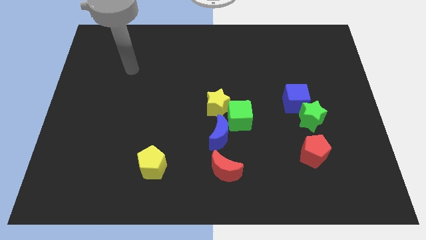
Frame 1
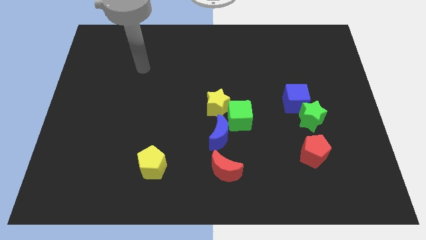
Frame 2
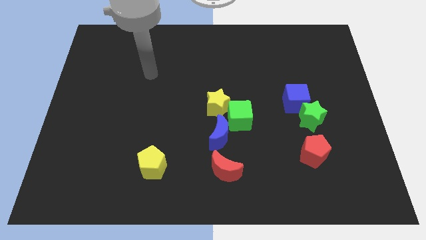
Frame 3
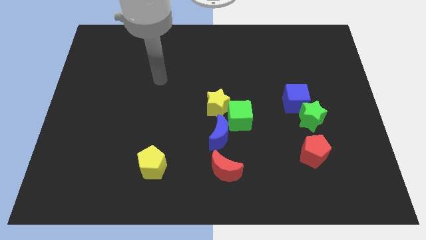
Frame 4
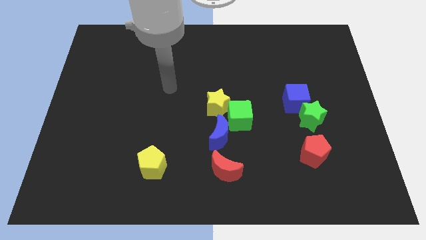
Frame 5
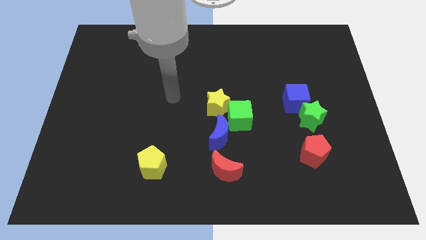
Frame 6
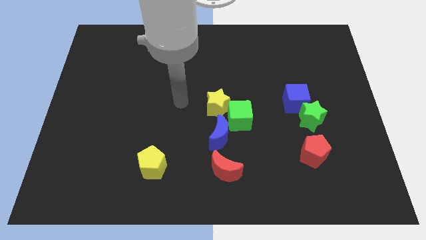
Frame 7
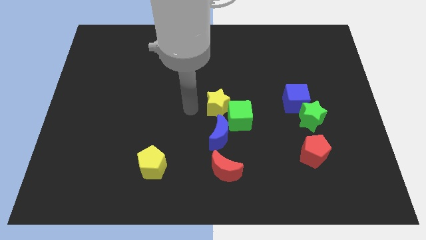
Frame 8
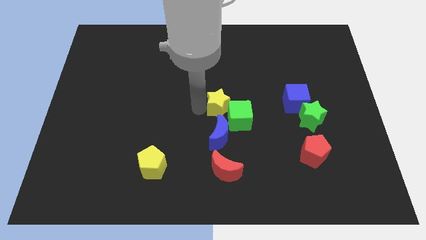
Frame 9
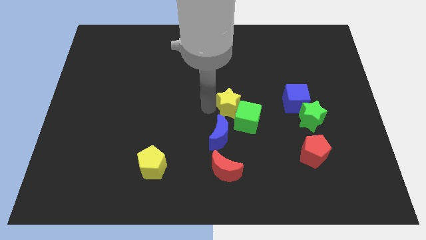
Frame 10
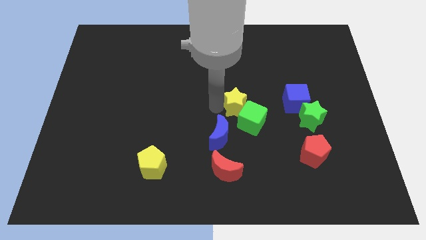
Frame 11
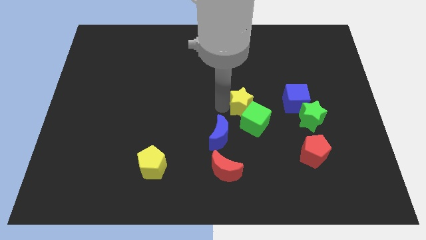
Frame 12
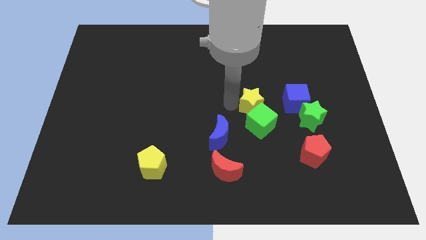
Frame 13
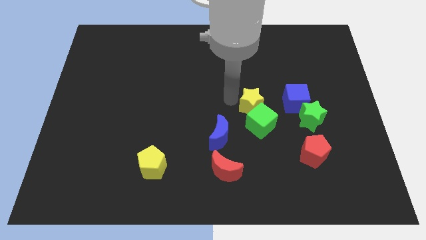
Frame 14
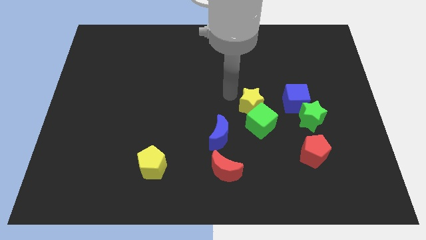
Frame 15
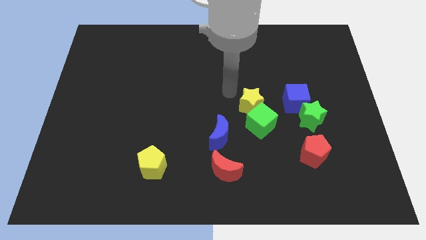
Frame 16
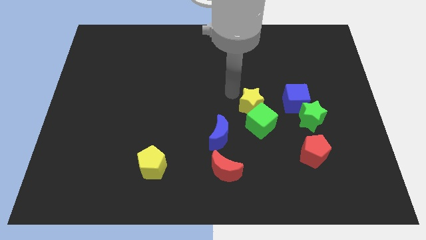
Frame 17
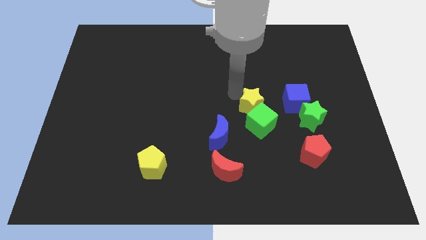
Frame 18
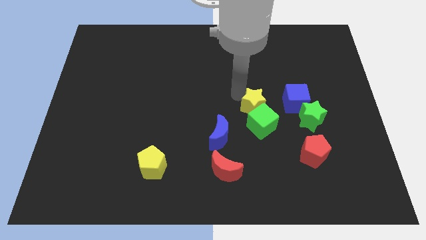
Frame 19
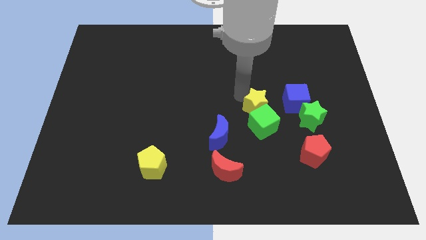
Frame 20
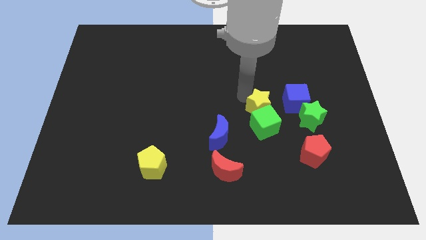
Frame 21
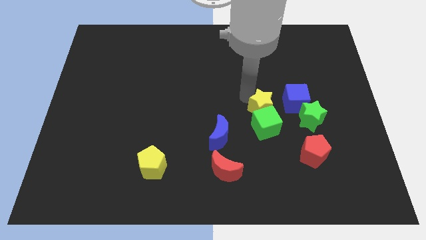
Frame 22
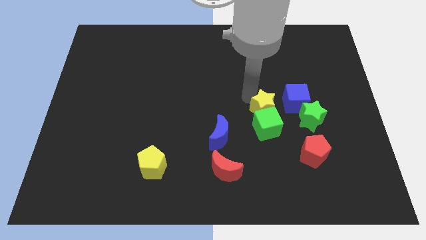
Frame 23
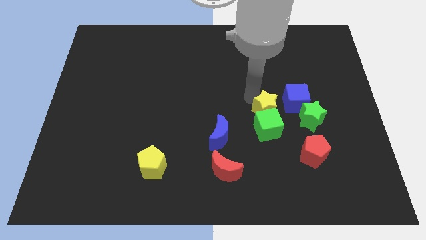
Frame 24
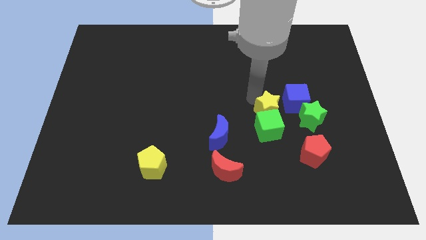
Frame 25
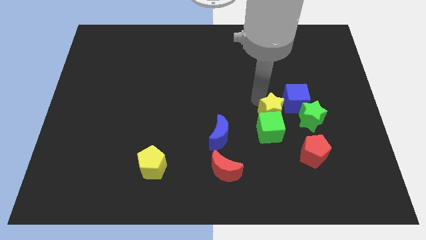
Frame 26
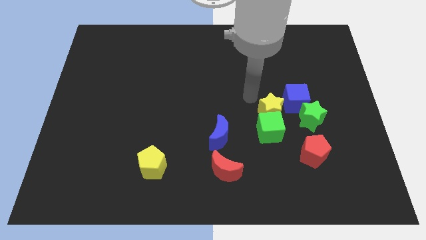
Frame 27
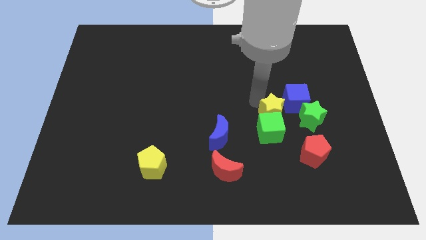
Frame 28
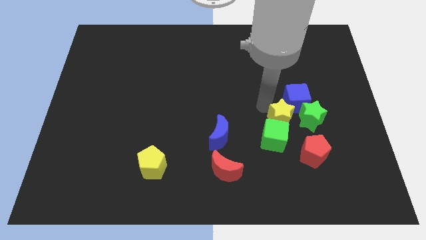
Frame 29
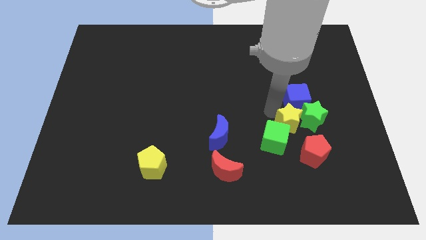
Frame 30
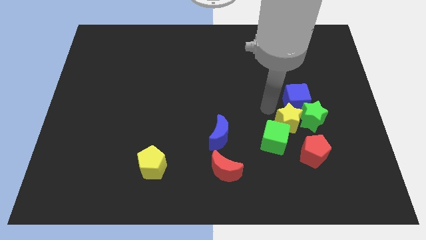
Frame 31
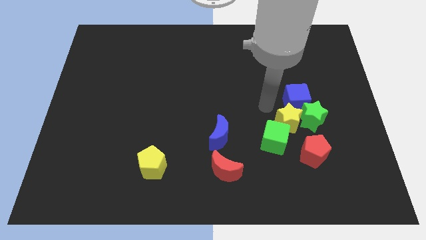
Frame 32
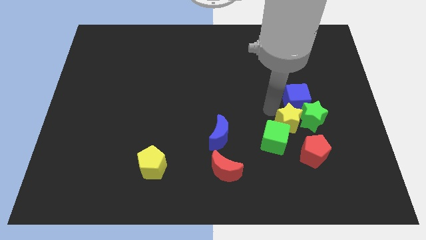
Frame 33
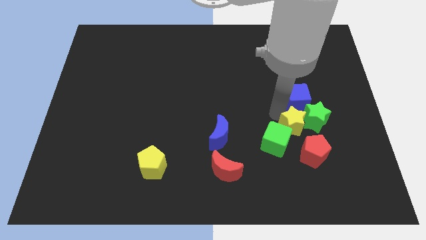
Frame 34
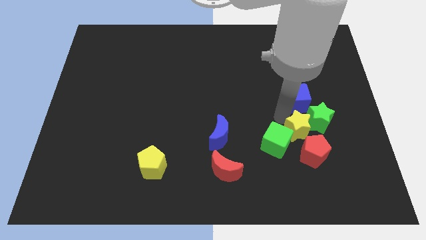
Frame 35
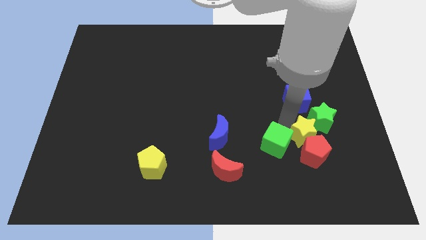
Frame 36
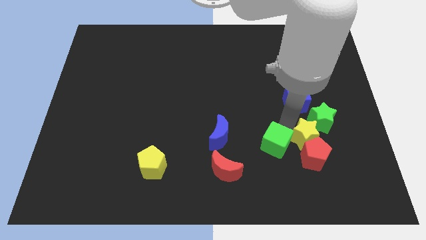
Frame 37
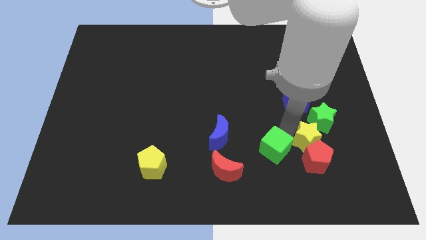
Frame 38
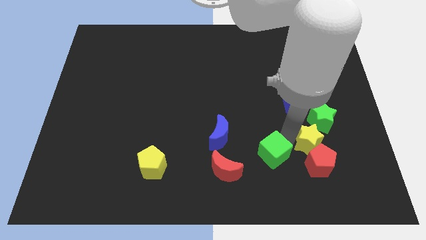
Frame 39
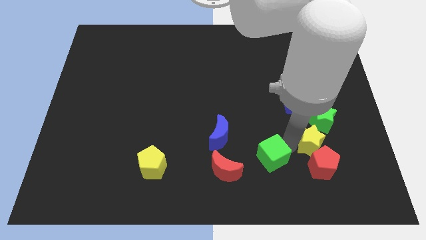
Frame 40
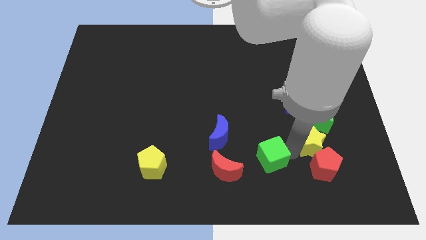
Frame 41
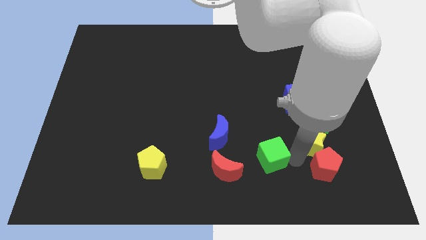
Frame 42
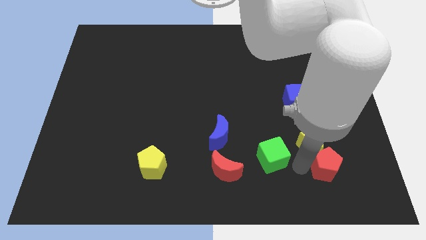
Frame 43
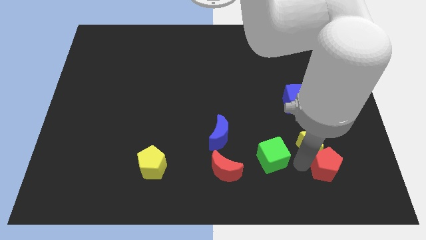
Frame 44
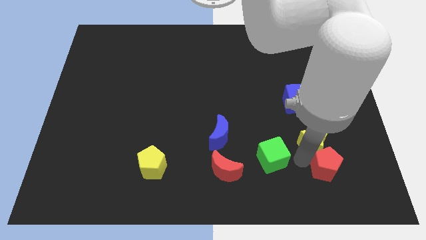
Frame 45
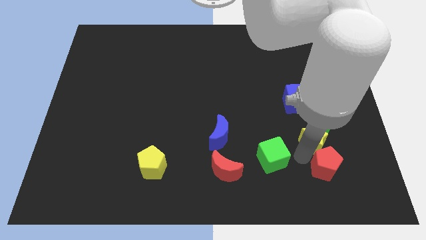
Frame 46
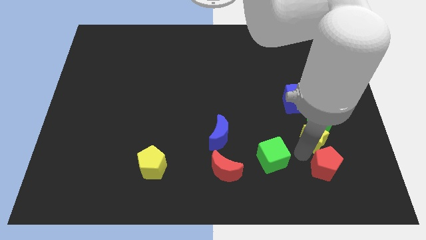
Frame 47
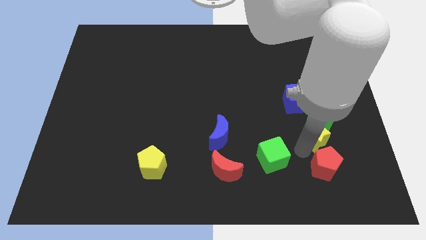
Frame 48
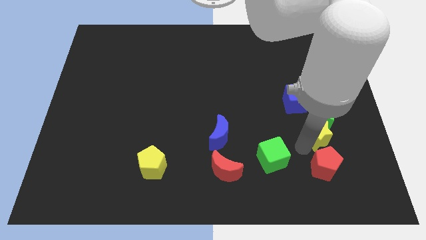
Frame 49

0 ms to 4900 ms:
push the yellow star to the bottom right of the blue cube

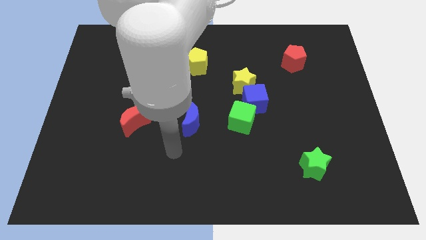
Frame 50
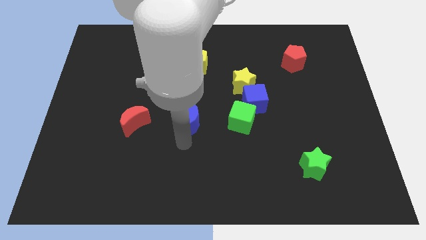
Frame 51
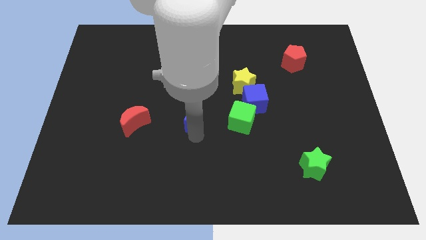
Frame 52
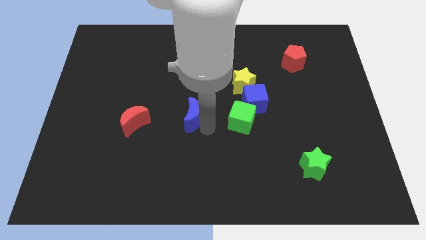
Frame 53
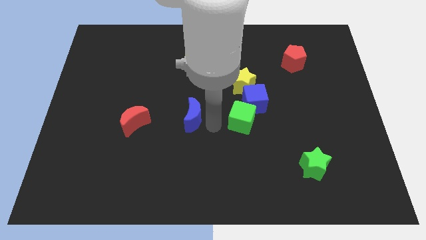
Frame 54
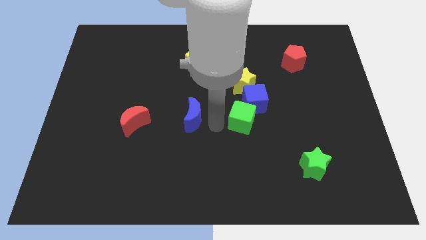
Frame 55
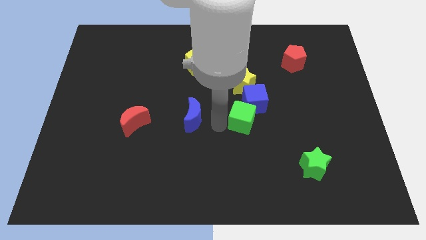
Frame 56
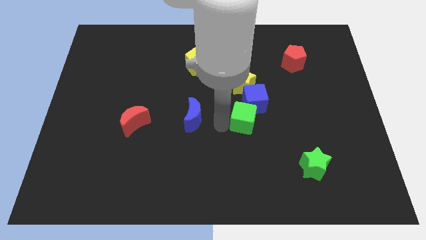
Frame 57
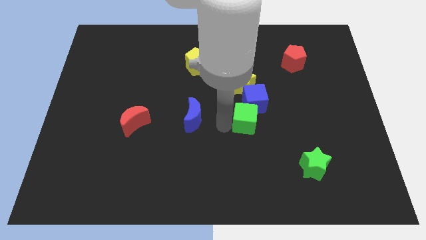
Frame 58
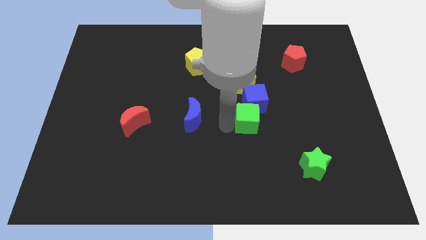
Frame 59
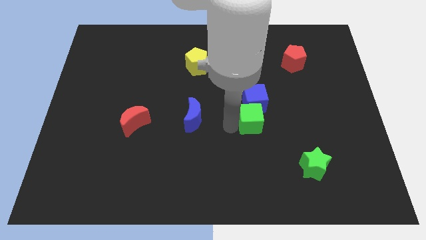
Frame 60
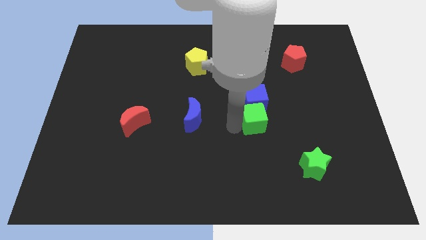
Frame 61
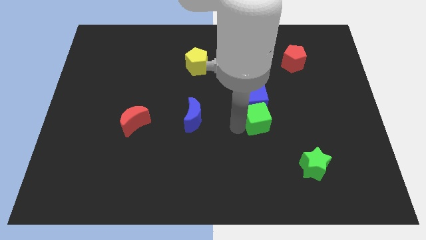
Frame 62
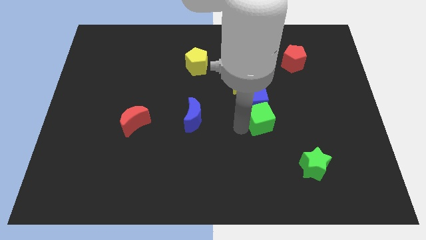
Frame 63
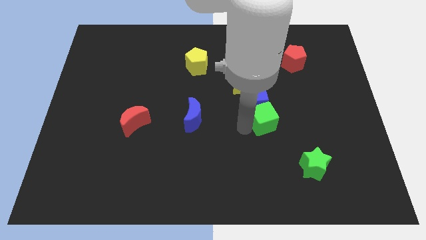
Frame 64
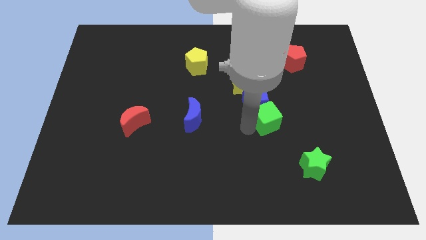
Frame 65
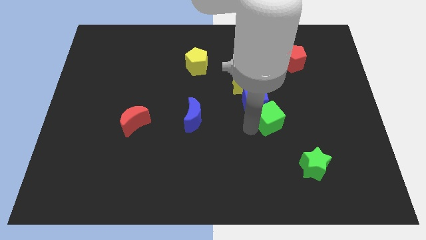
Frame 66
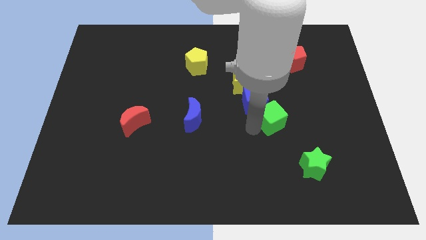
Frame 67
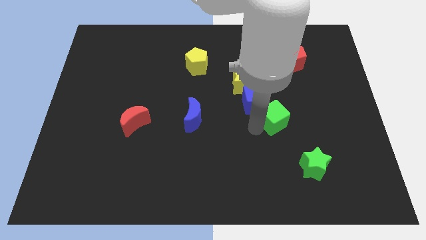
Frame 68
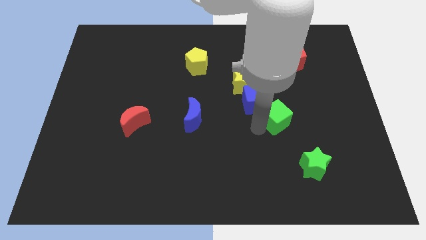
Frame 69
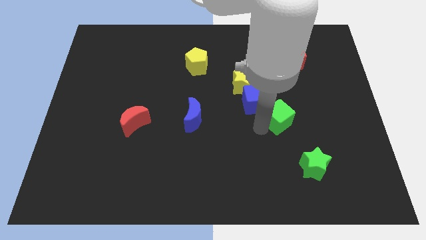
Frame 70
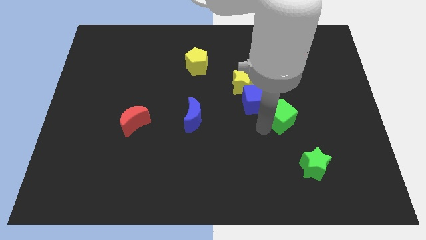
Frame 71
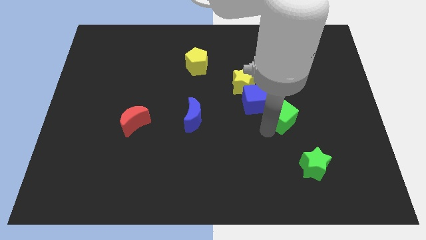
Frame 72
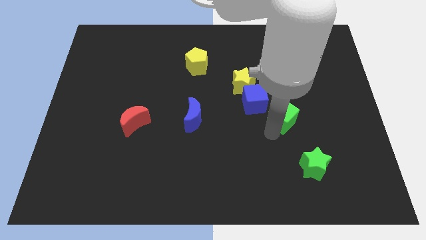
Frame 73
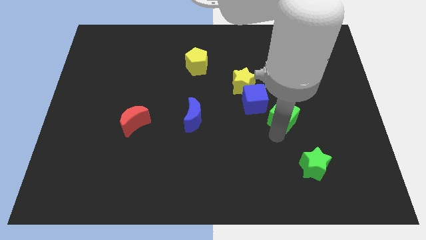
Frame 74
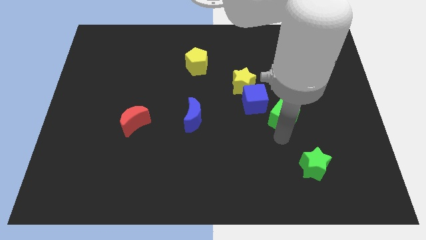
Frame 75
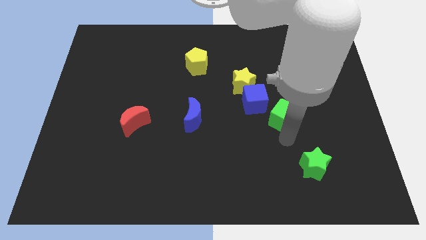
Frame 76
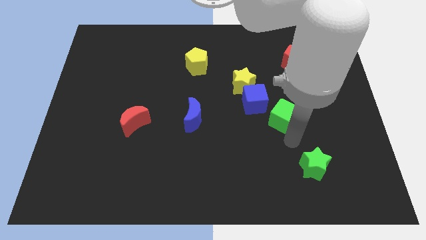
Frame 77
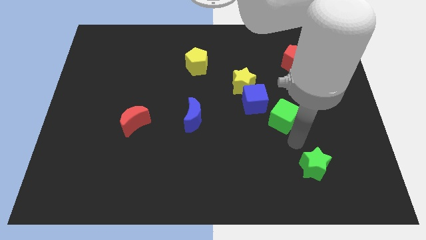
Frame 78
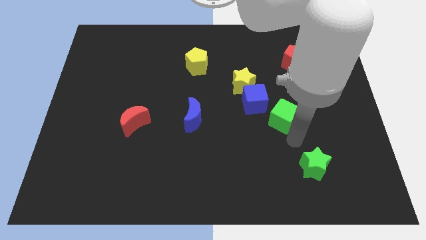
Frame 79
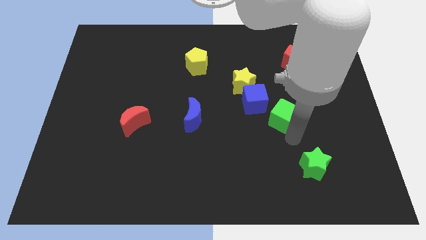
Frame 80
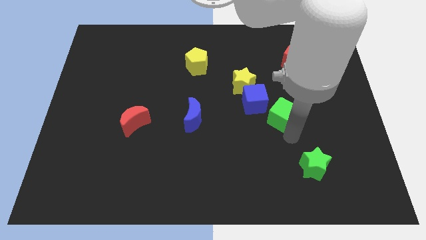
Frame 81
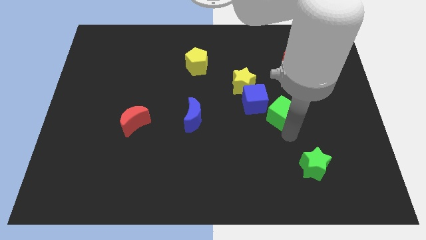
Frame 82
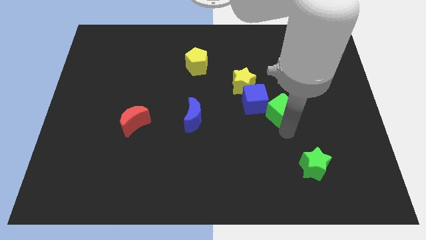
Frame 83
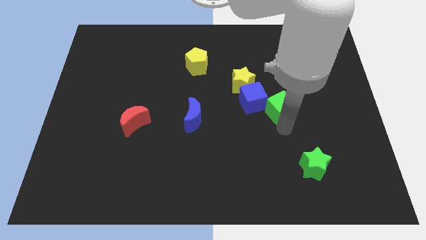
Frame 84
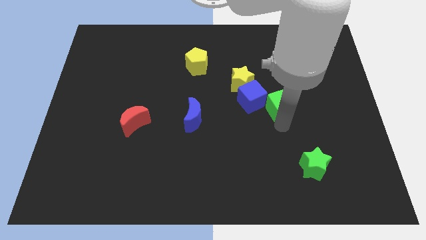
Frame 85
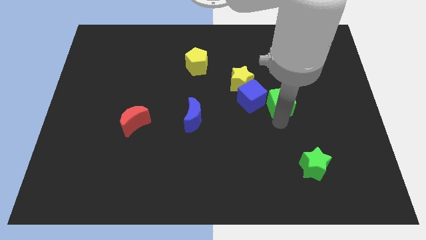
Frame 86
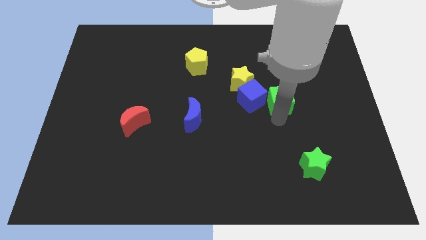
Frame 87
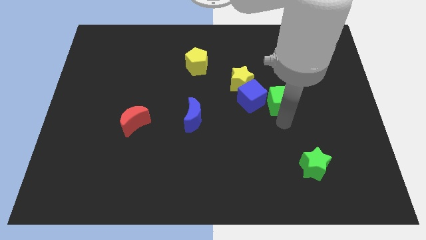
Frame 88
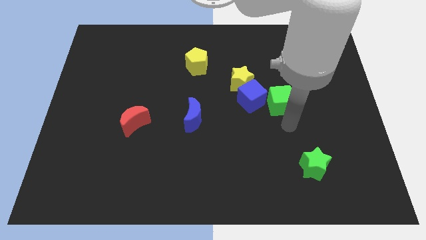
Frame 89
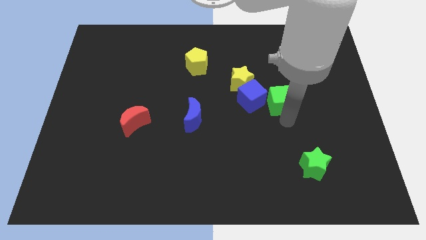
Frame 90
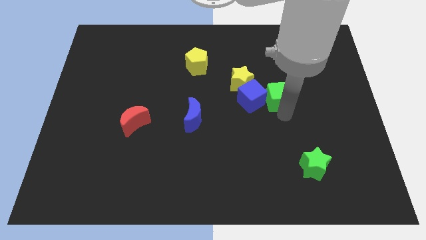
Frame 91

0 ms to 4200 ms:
slide the green cube to the top right side of the blue cube
